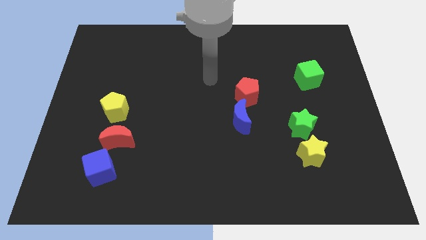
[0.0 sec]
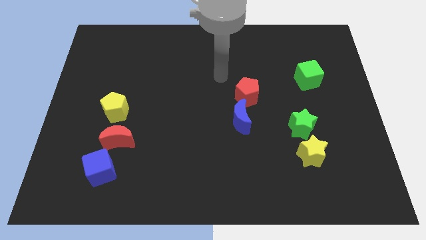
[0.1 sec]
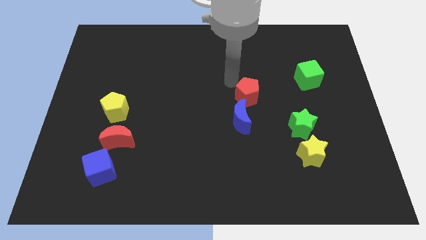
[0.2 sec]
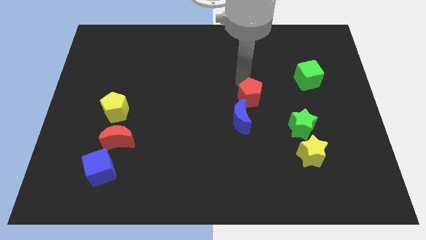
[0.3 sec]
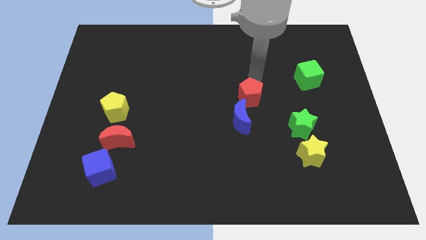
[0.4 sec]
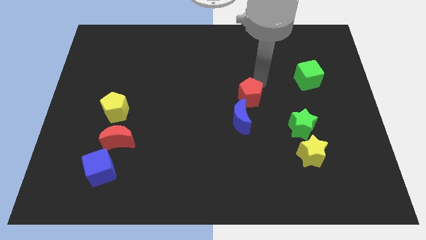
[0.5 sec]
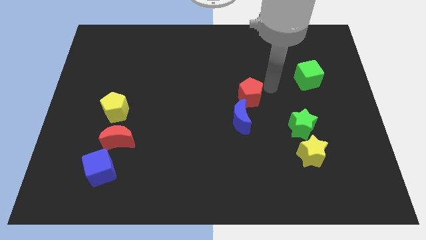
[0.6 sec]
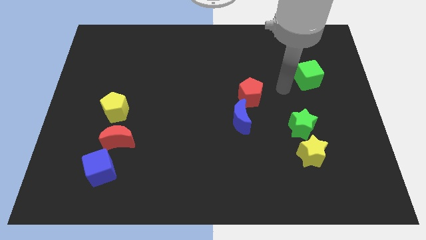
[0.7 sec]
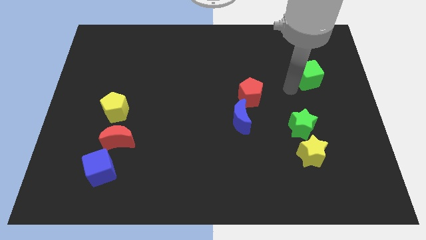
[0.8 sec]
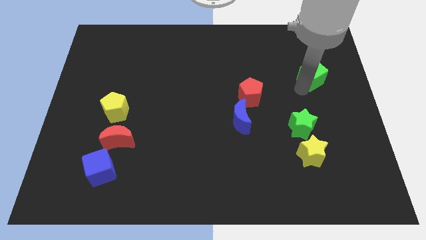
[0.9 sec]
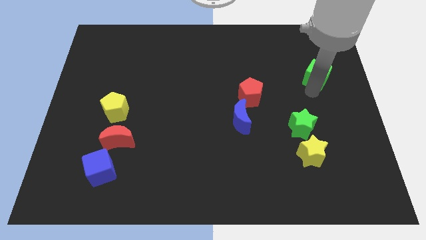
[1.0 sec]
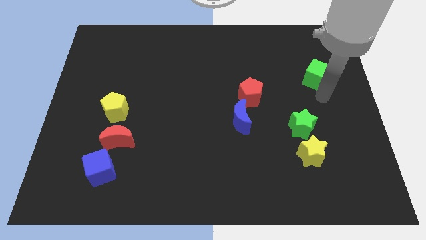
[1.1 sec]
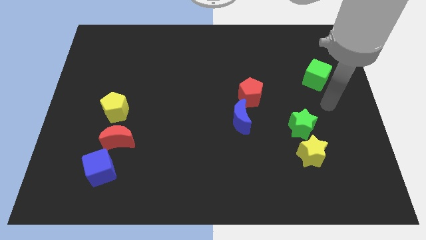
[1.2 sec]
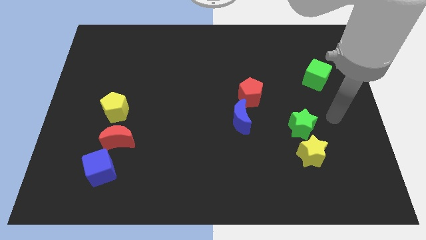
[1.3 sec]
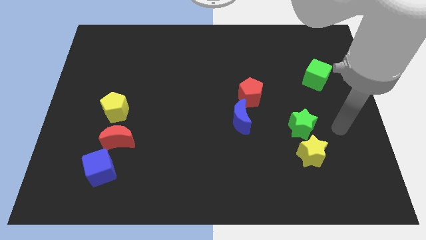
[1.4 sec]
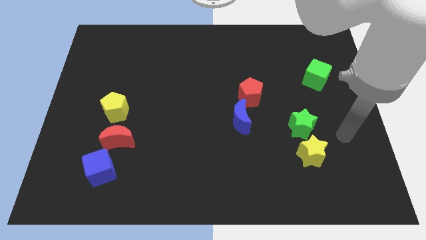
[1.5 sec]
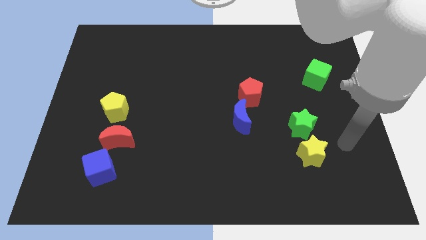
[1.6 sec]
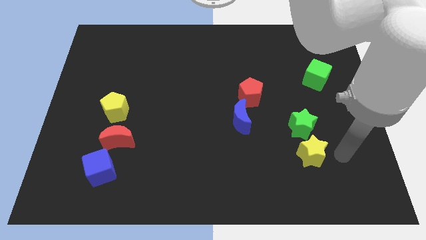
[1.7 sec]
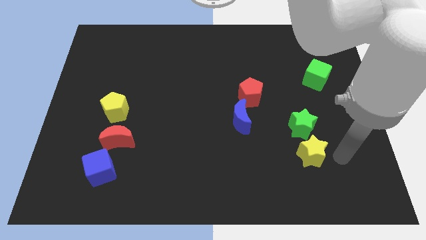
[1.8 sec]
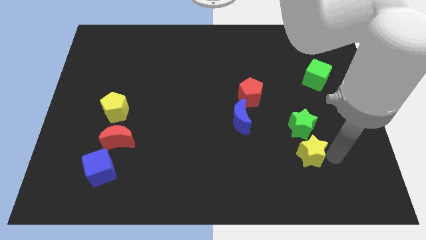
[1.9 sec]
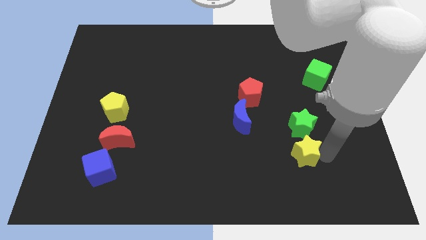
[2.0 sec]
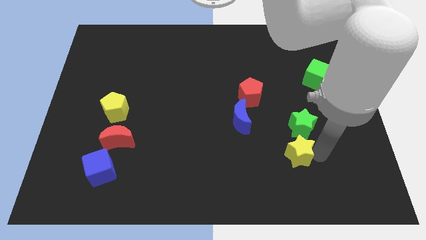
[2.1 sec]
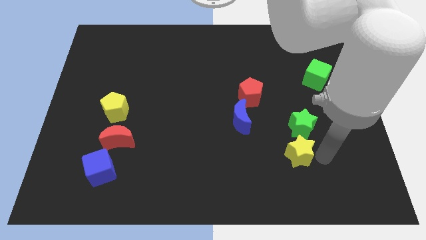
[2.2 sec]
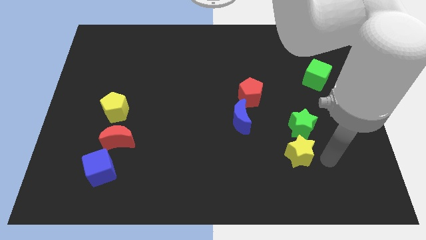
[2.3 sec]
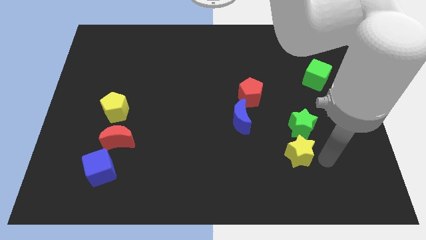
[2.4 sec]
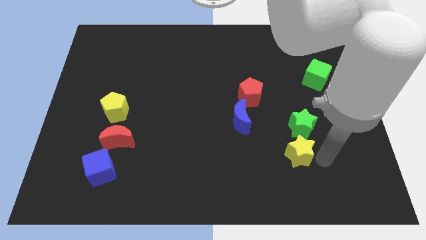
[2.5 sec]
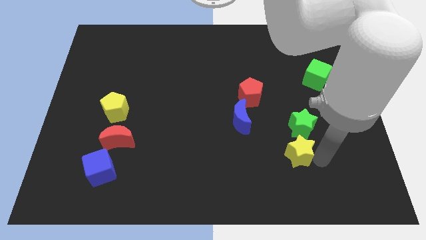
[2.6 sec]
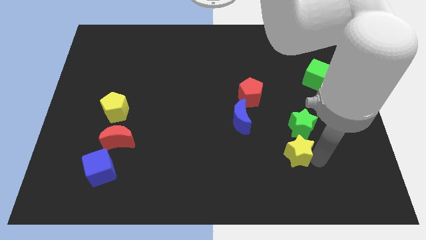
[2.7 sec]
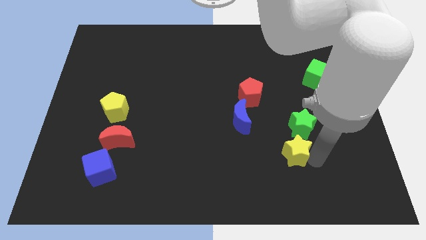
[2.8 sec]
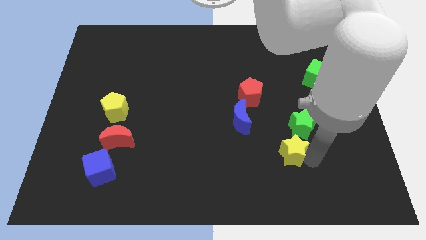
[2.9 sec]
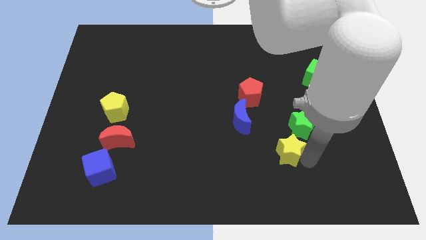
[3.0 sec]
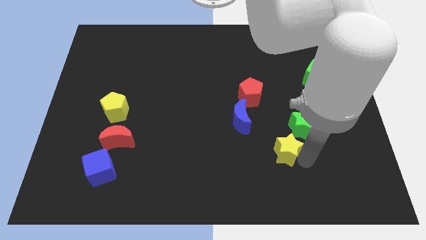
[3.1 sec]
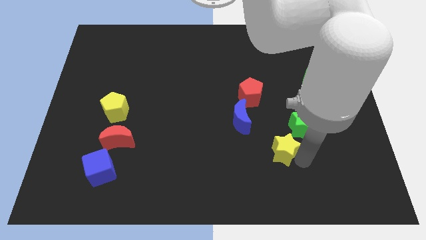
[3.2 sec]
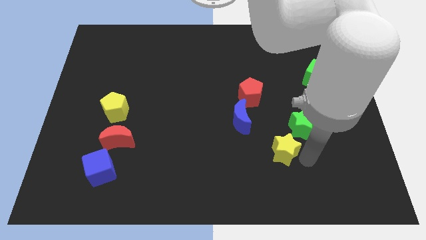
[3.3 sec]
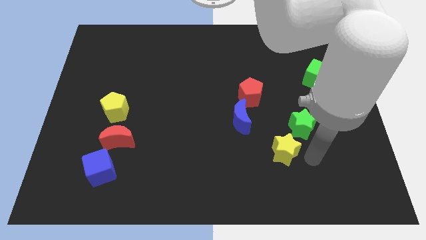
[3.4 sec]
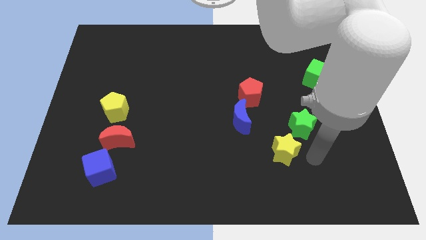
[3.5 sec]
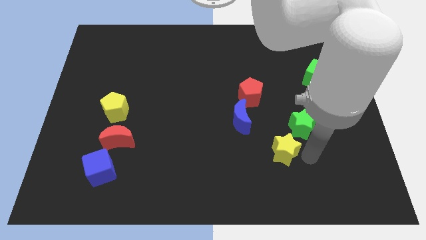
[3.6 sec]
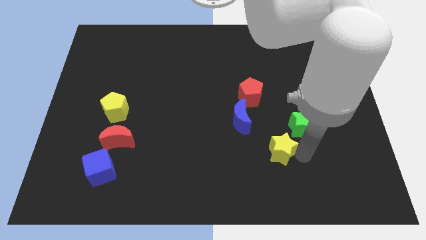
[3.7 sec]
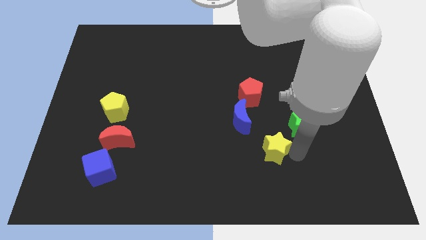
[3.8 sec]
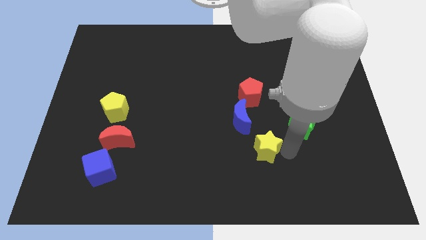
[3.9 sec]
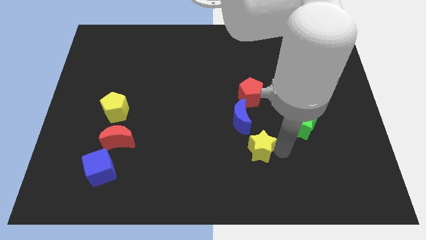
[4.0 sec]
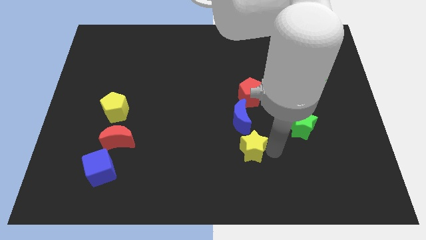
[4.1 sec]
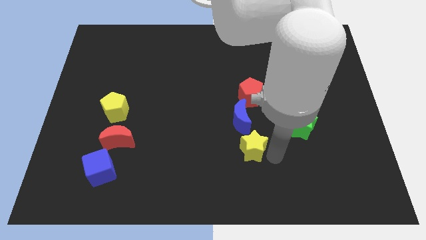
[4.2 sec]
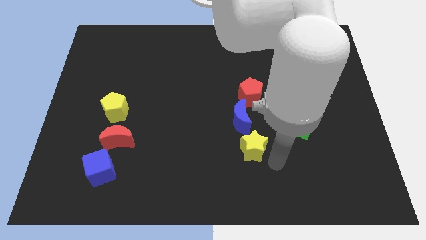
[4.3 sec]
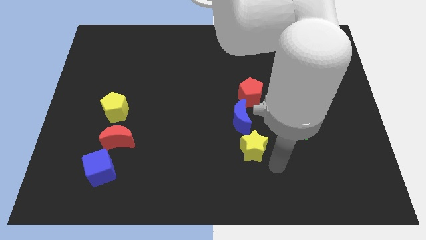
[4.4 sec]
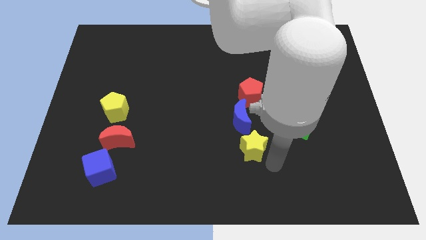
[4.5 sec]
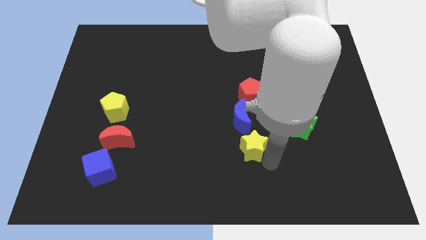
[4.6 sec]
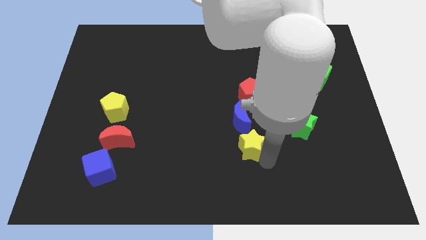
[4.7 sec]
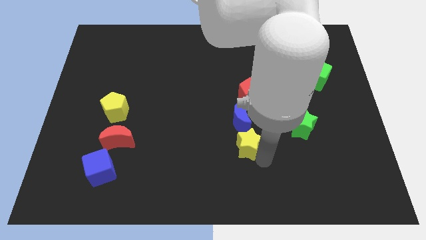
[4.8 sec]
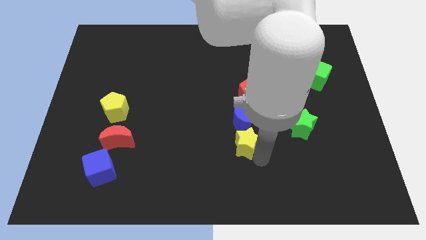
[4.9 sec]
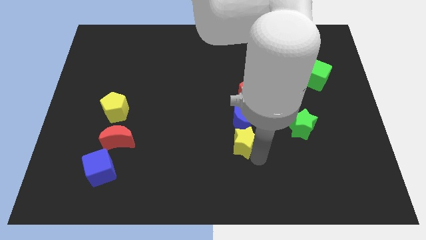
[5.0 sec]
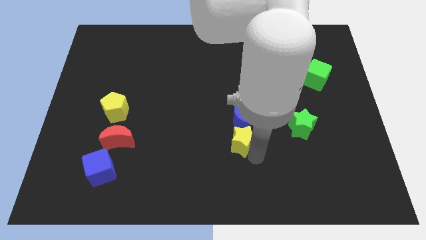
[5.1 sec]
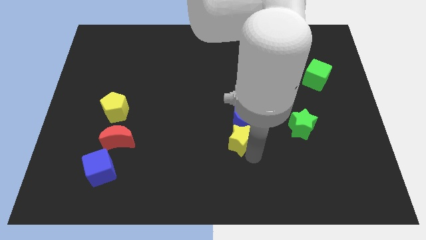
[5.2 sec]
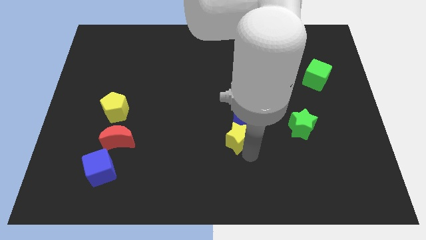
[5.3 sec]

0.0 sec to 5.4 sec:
push the yellow star to the middle

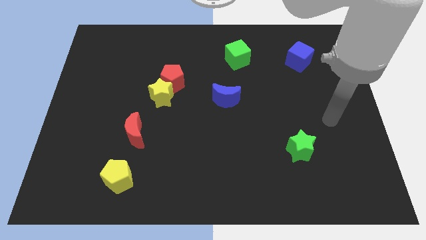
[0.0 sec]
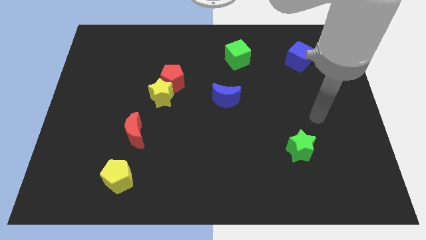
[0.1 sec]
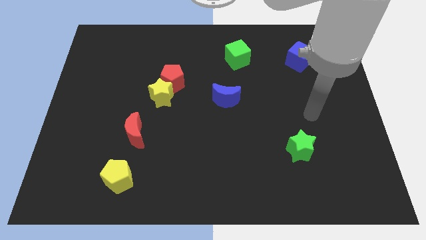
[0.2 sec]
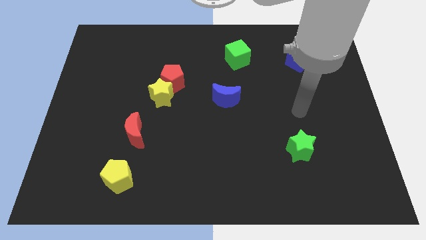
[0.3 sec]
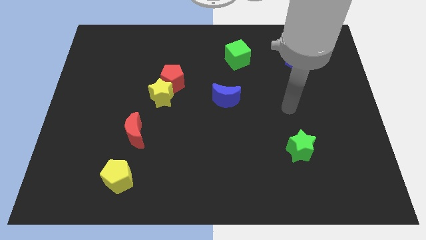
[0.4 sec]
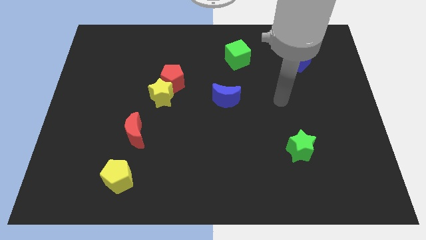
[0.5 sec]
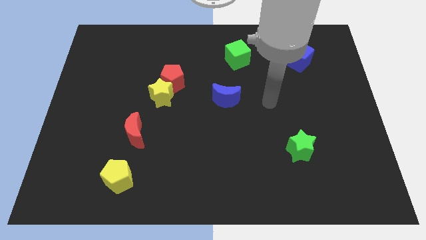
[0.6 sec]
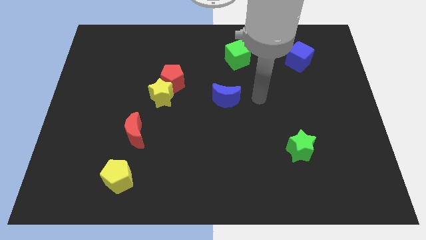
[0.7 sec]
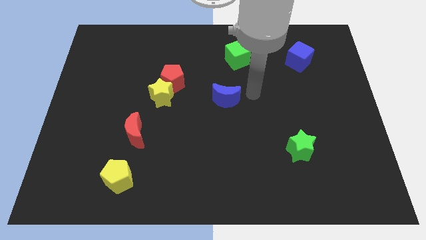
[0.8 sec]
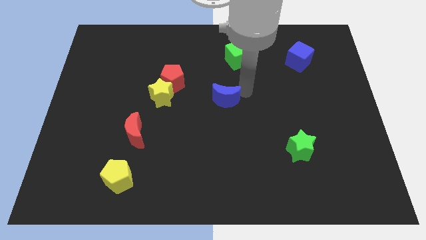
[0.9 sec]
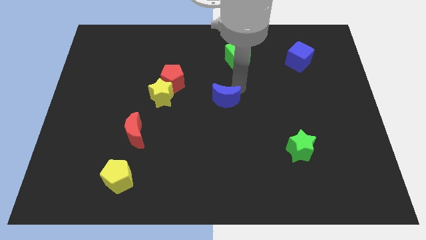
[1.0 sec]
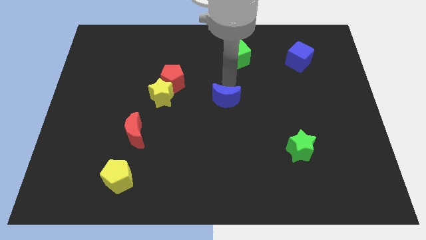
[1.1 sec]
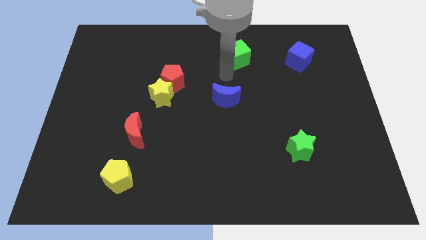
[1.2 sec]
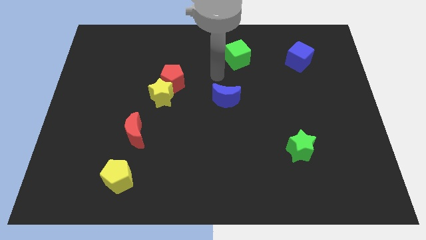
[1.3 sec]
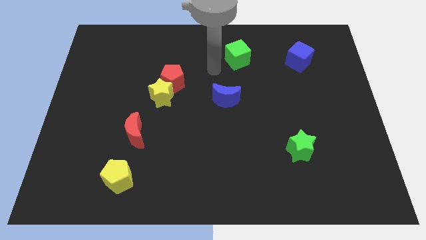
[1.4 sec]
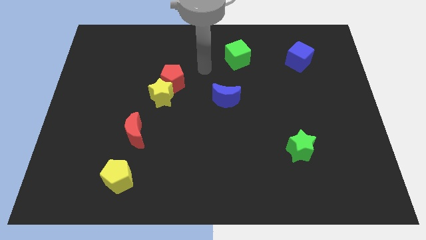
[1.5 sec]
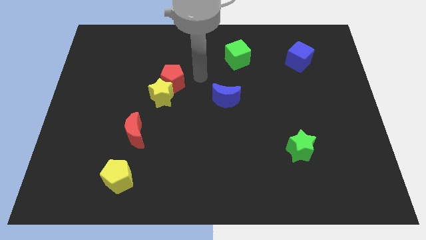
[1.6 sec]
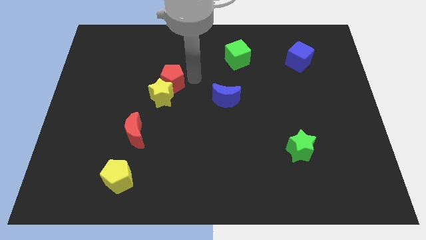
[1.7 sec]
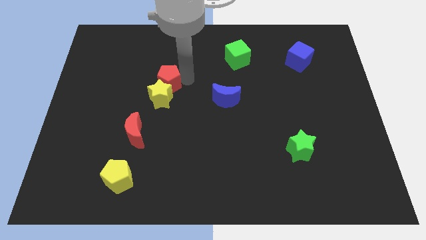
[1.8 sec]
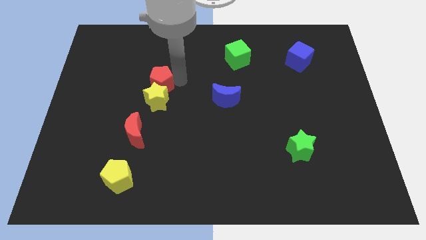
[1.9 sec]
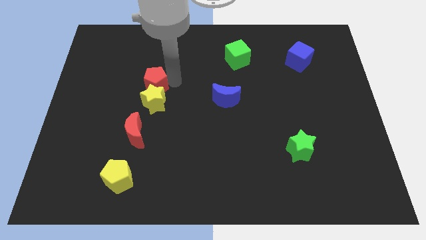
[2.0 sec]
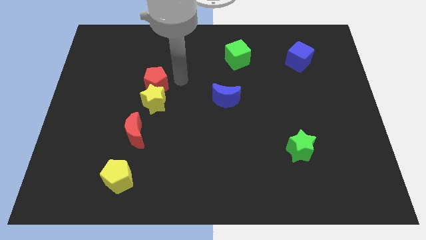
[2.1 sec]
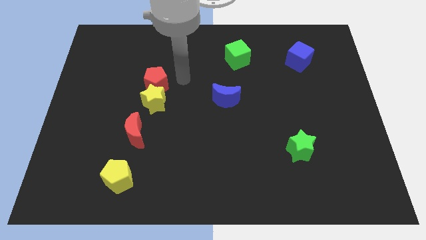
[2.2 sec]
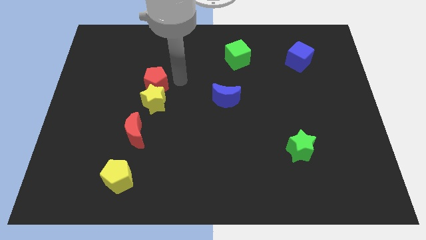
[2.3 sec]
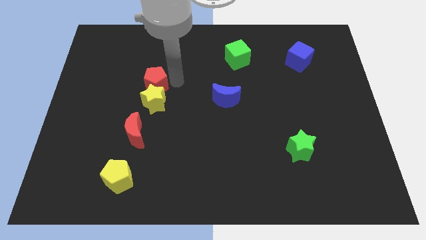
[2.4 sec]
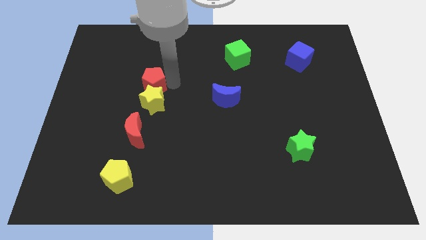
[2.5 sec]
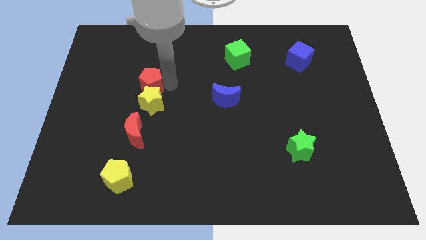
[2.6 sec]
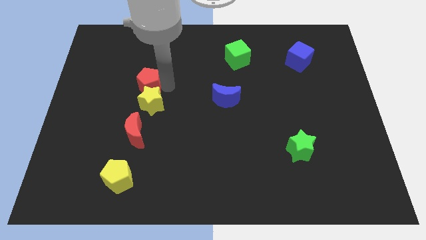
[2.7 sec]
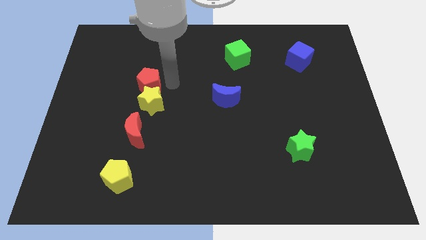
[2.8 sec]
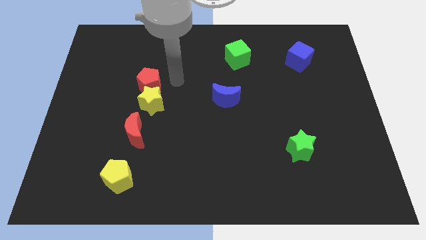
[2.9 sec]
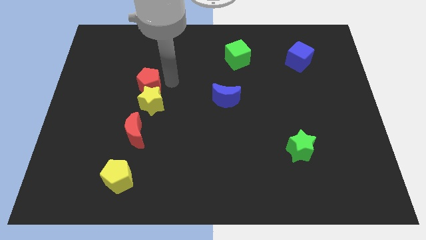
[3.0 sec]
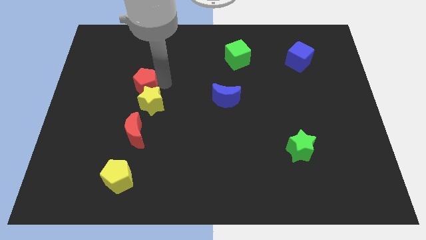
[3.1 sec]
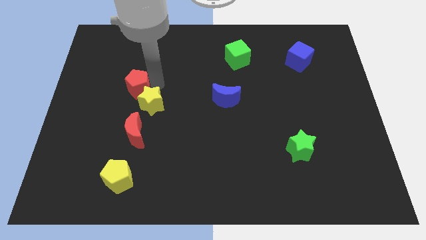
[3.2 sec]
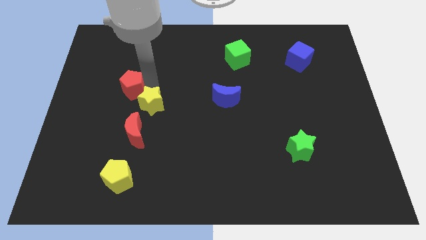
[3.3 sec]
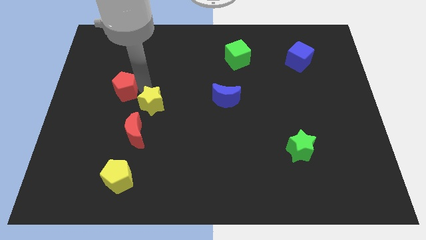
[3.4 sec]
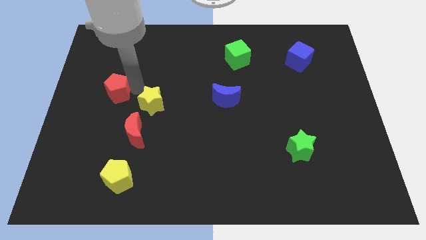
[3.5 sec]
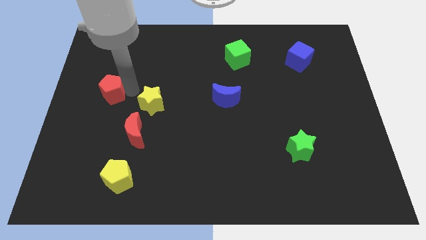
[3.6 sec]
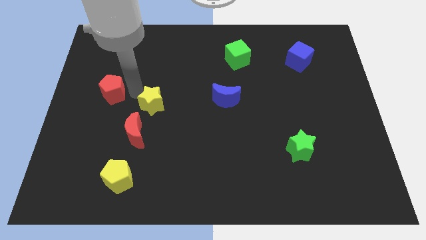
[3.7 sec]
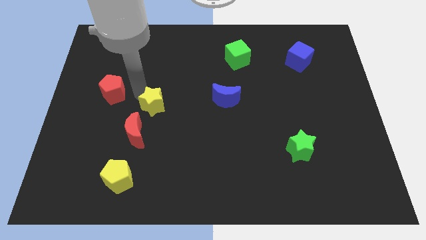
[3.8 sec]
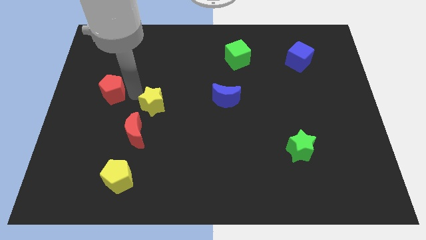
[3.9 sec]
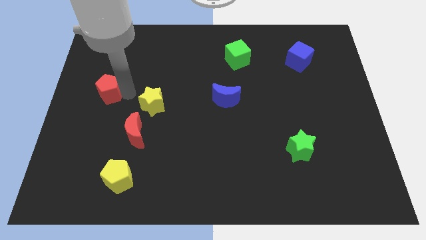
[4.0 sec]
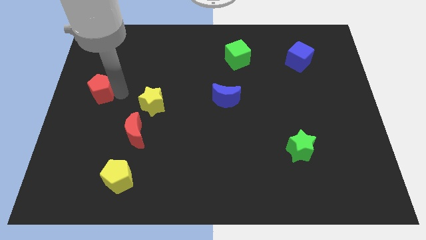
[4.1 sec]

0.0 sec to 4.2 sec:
push the red pentagon to the left side of the board
